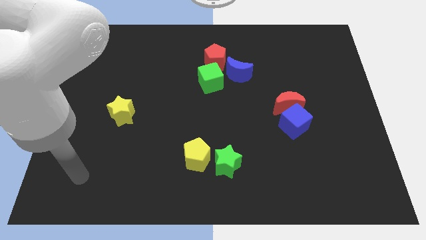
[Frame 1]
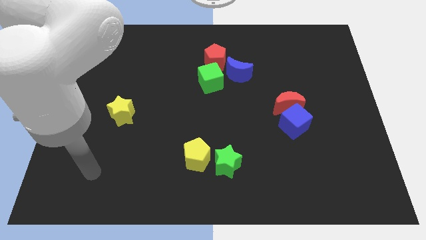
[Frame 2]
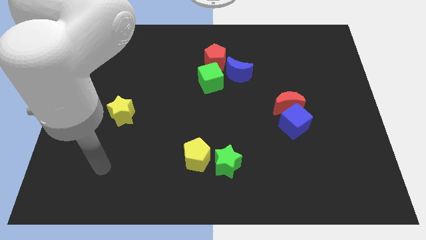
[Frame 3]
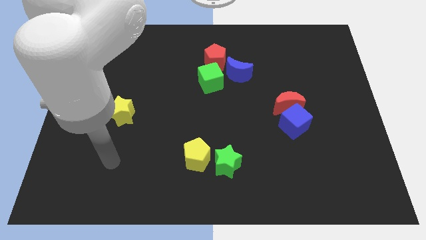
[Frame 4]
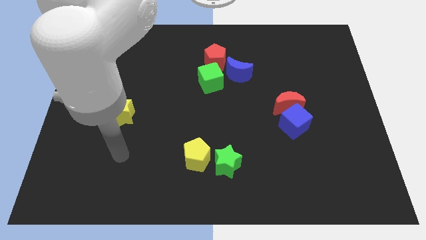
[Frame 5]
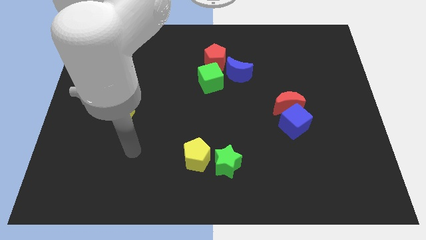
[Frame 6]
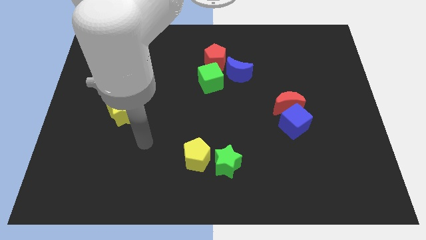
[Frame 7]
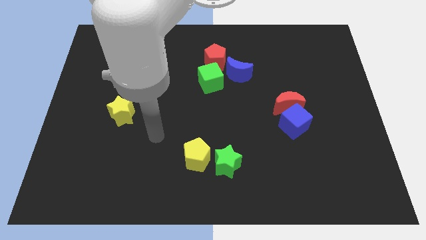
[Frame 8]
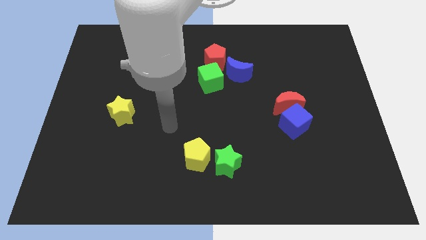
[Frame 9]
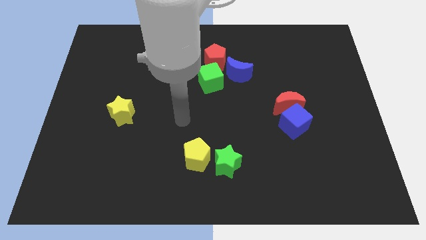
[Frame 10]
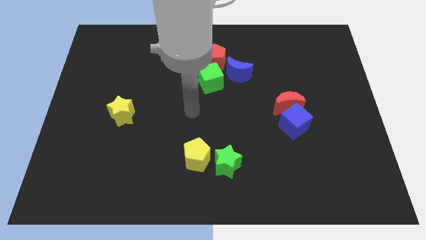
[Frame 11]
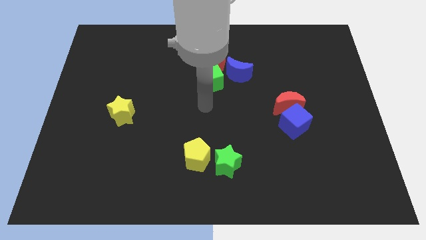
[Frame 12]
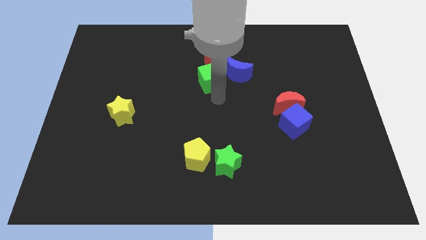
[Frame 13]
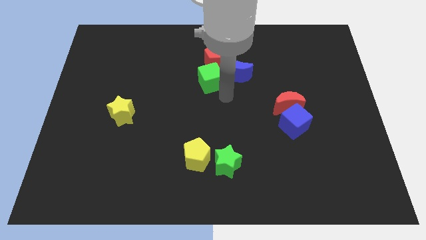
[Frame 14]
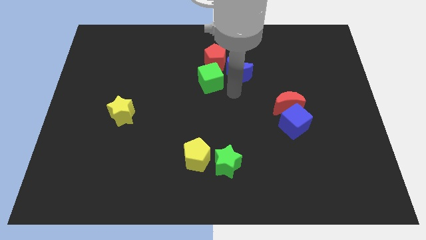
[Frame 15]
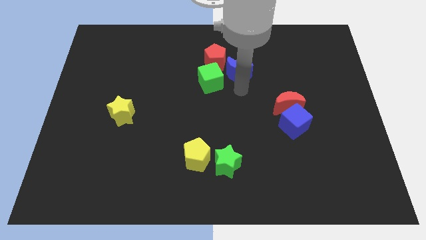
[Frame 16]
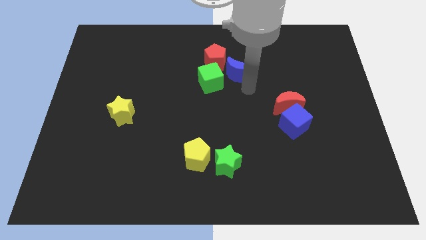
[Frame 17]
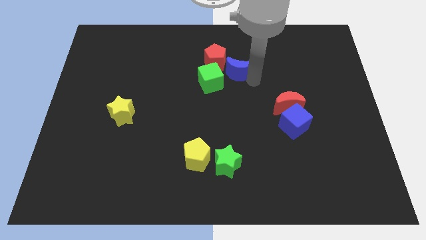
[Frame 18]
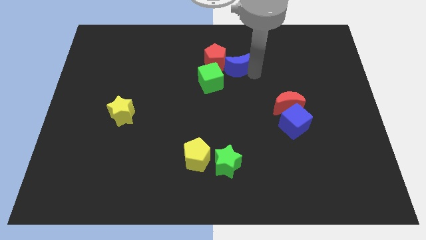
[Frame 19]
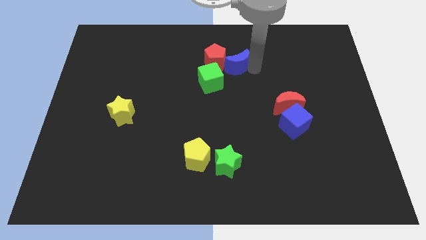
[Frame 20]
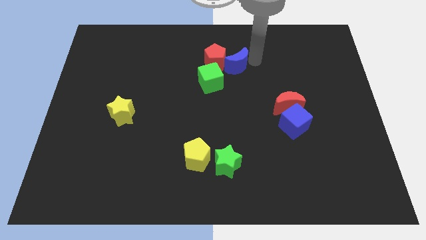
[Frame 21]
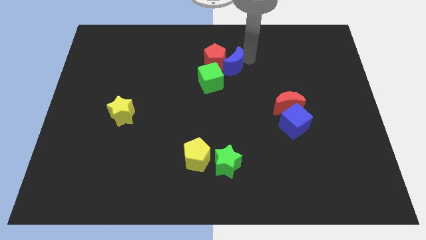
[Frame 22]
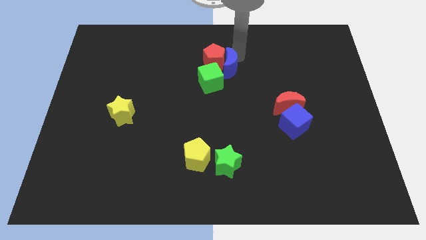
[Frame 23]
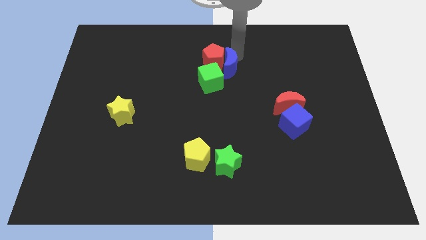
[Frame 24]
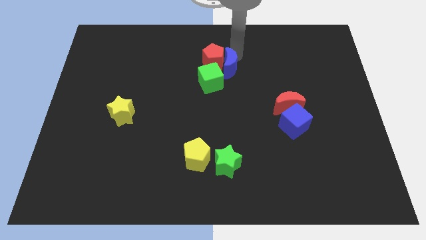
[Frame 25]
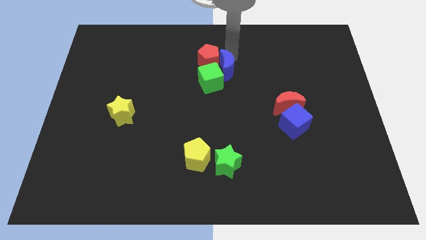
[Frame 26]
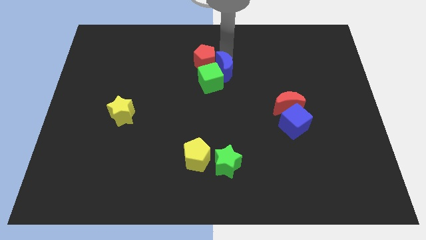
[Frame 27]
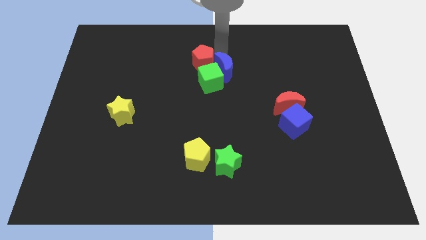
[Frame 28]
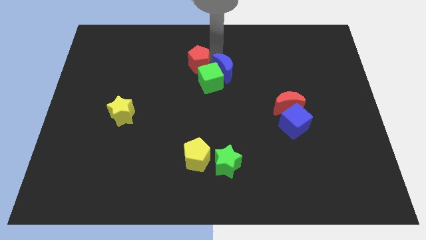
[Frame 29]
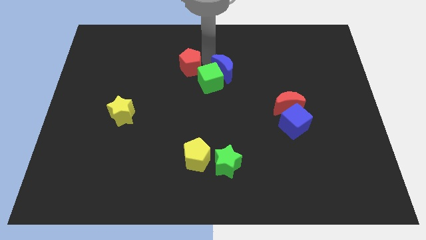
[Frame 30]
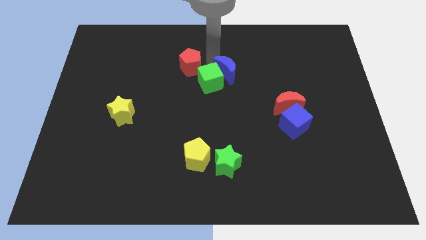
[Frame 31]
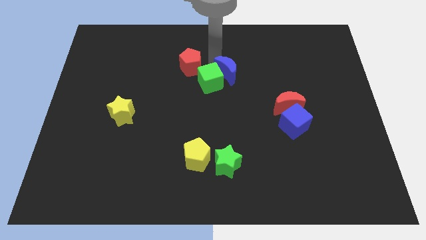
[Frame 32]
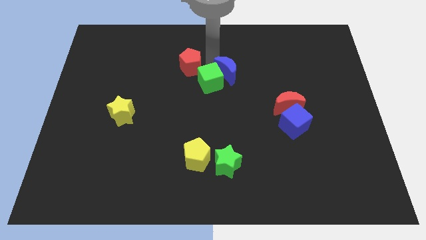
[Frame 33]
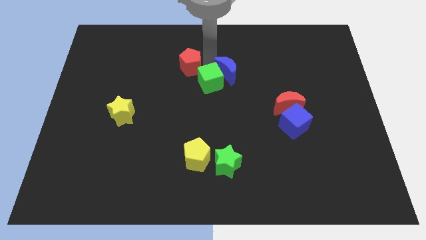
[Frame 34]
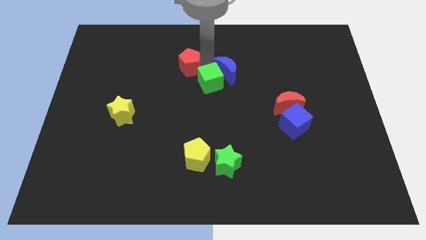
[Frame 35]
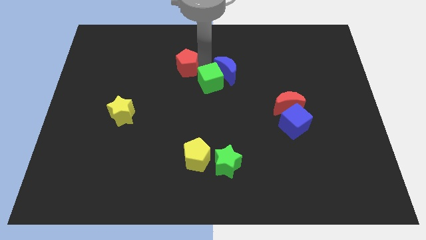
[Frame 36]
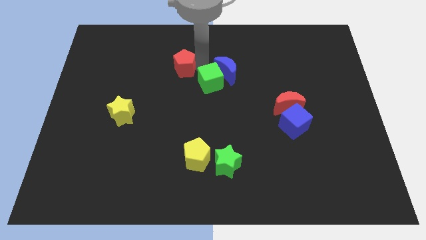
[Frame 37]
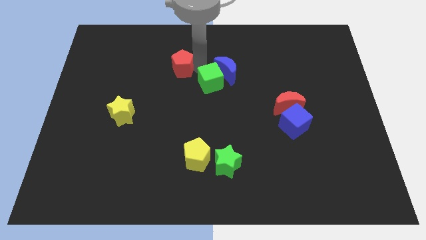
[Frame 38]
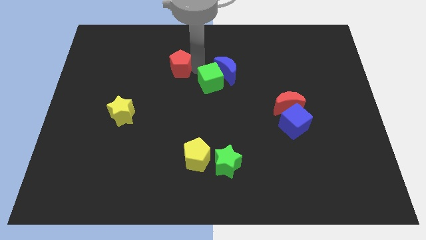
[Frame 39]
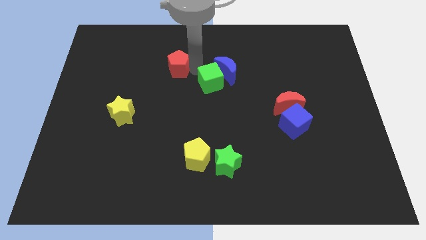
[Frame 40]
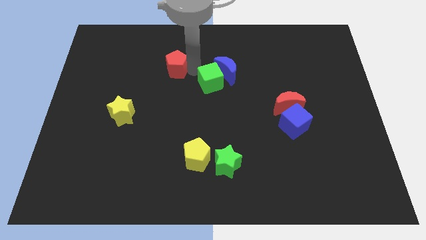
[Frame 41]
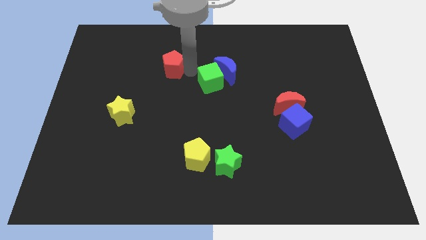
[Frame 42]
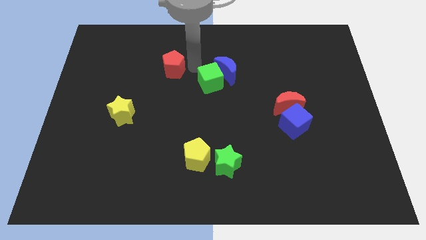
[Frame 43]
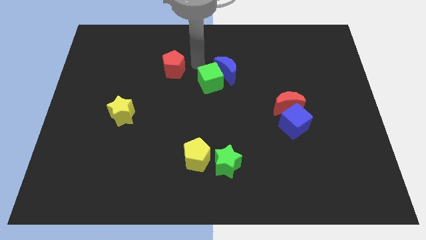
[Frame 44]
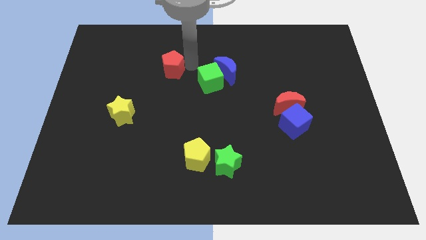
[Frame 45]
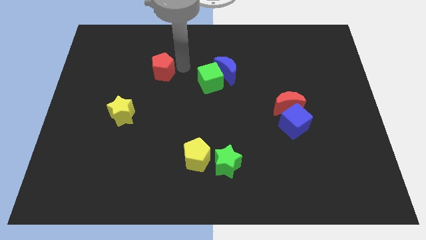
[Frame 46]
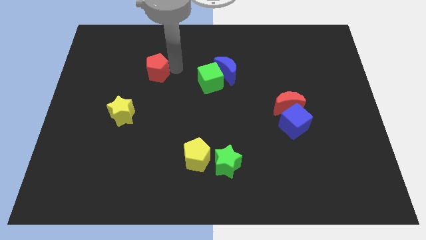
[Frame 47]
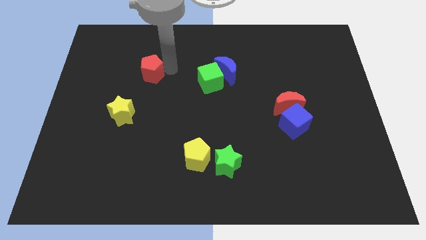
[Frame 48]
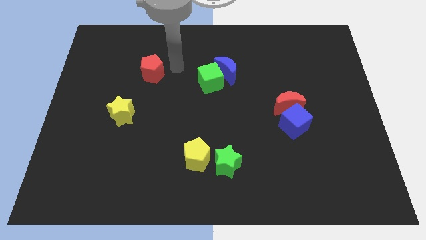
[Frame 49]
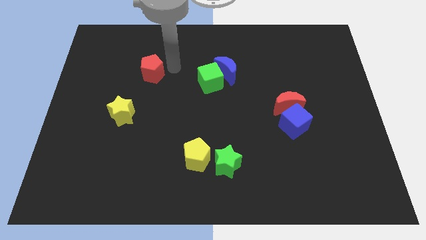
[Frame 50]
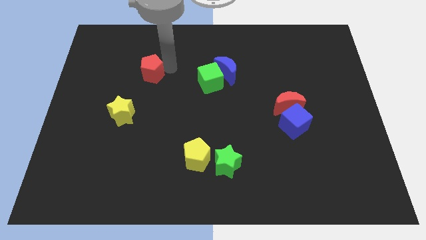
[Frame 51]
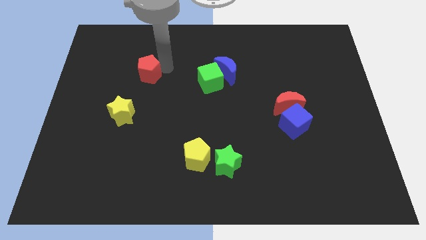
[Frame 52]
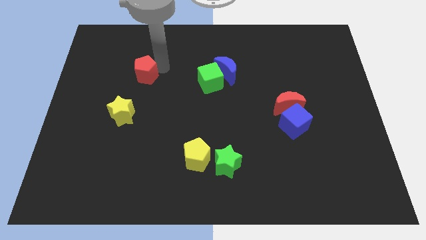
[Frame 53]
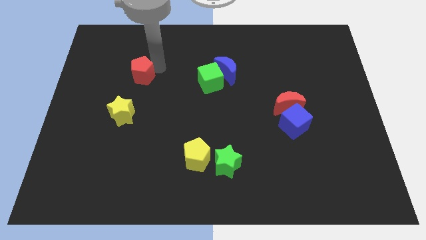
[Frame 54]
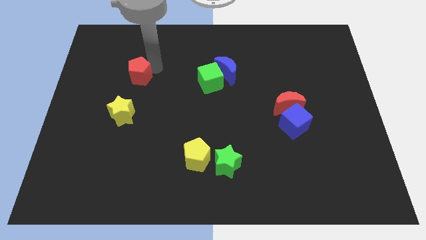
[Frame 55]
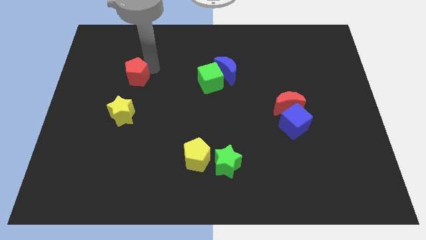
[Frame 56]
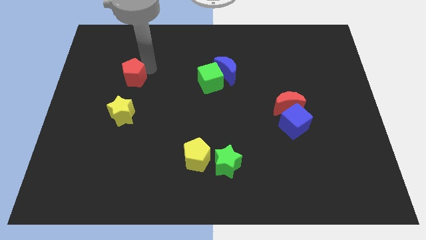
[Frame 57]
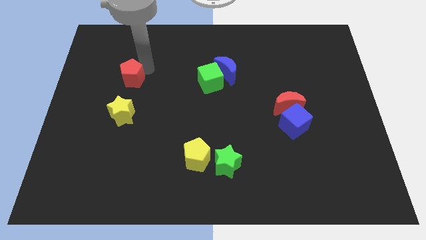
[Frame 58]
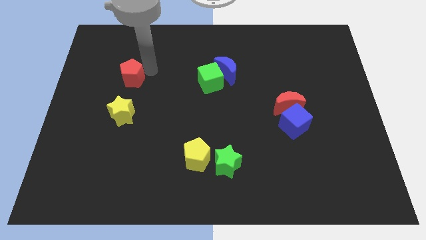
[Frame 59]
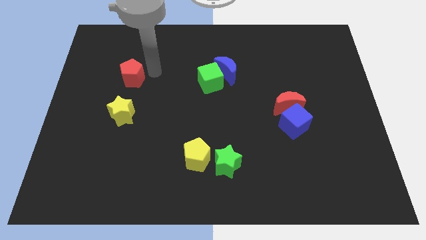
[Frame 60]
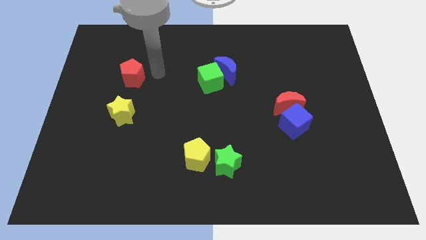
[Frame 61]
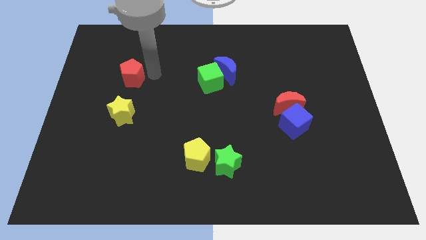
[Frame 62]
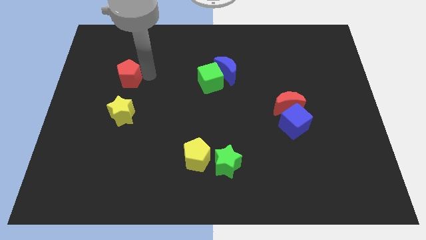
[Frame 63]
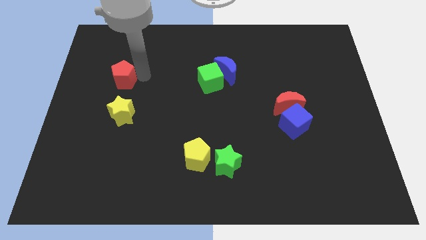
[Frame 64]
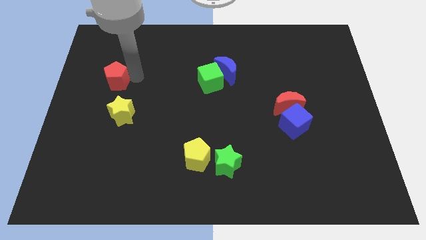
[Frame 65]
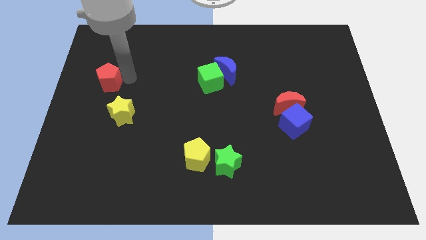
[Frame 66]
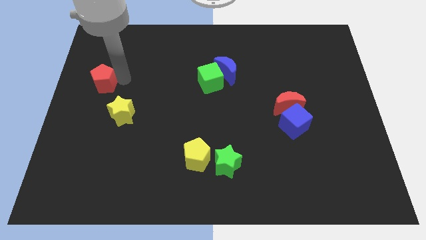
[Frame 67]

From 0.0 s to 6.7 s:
put the red pentagon to the center left
